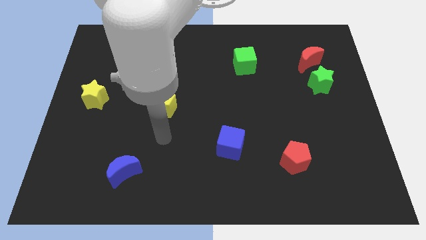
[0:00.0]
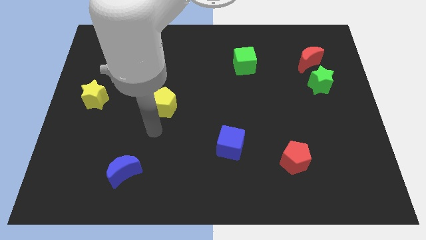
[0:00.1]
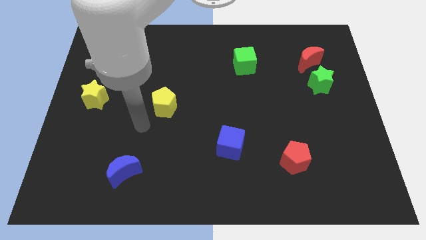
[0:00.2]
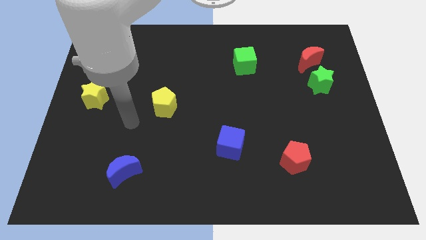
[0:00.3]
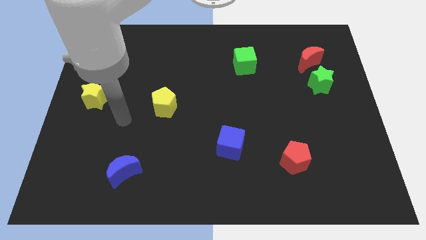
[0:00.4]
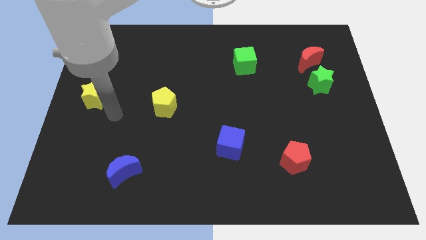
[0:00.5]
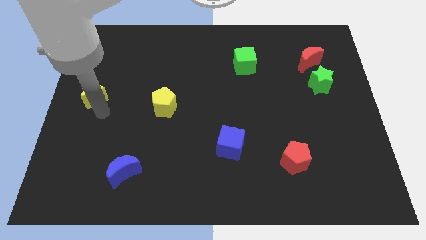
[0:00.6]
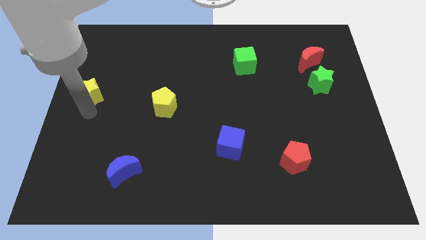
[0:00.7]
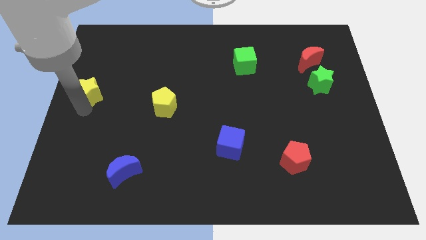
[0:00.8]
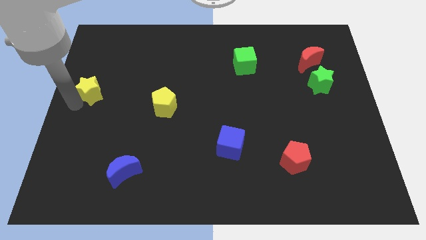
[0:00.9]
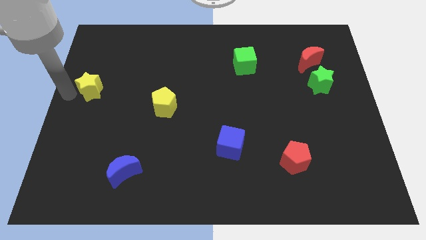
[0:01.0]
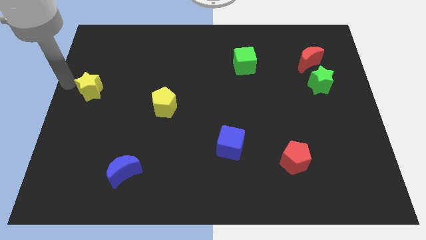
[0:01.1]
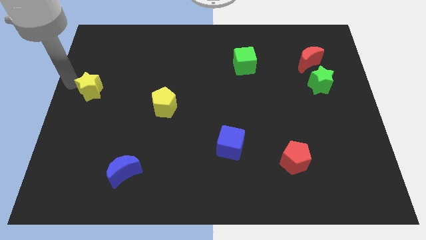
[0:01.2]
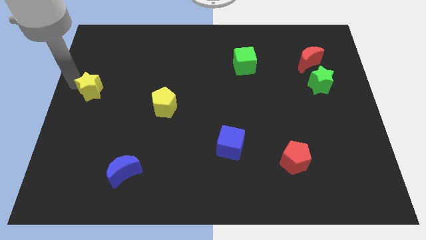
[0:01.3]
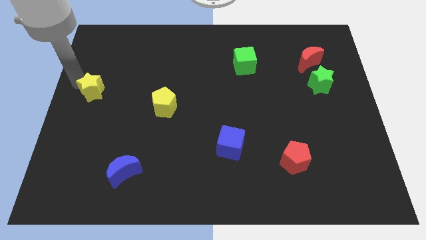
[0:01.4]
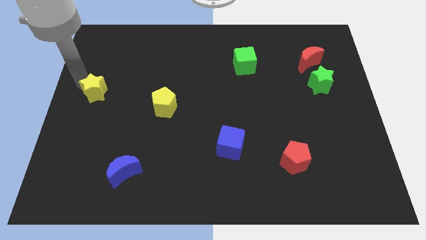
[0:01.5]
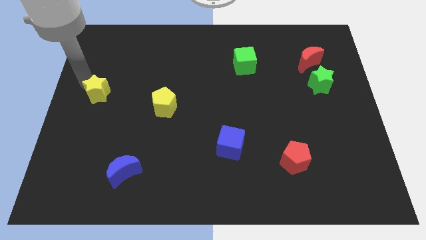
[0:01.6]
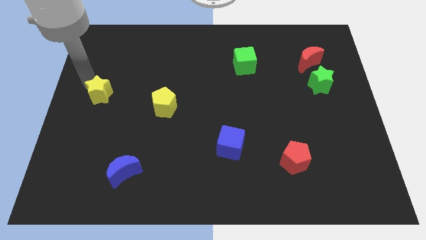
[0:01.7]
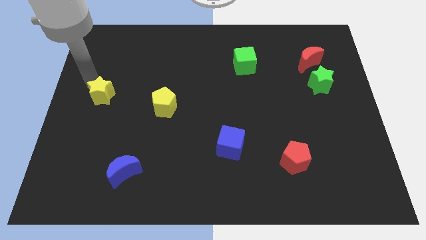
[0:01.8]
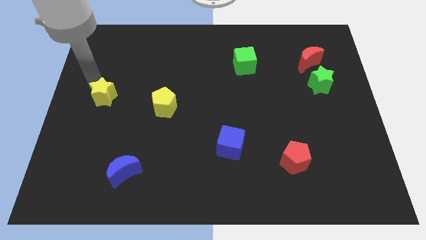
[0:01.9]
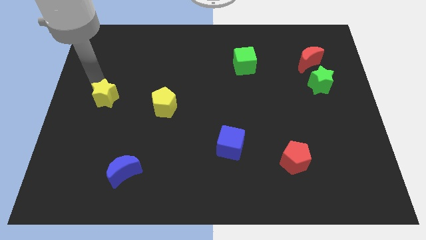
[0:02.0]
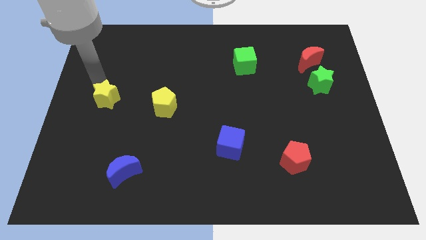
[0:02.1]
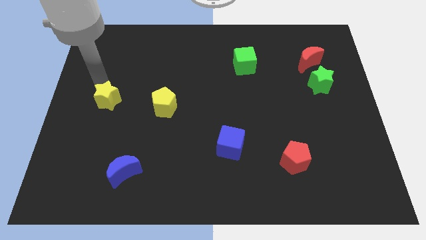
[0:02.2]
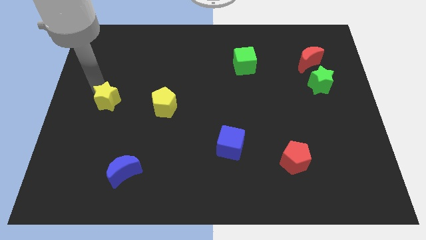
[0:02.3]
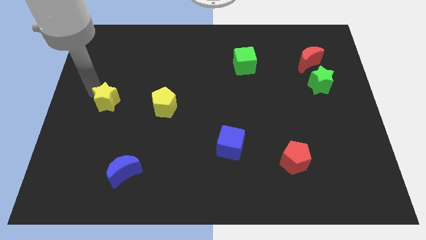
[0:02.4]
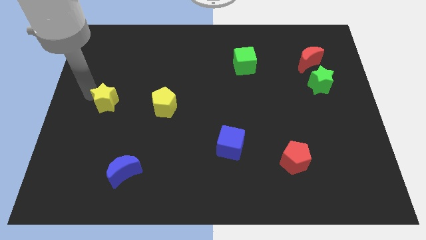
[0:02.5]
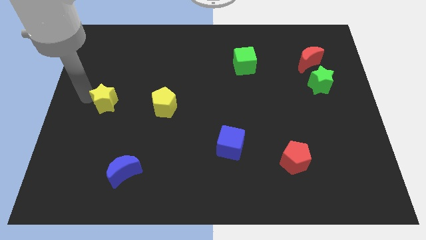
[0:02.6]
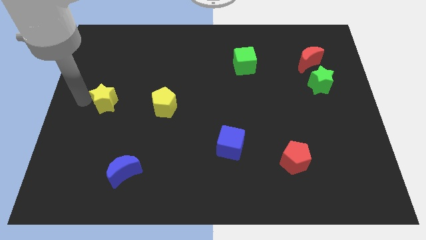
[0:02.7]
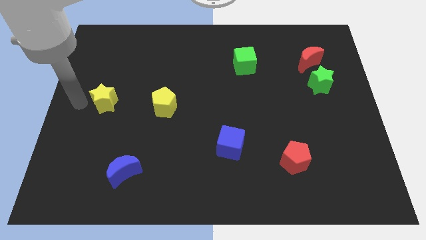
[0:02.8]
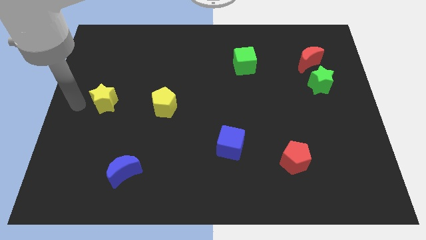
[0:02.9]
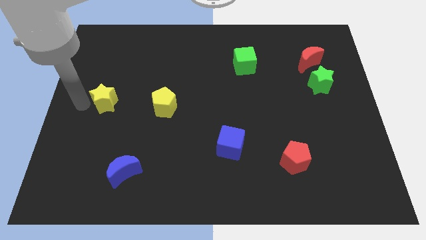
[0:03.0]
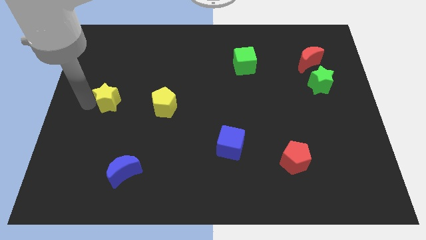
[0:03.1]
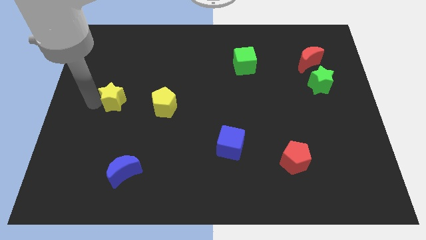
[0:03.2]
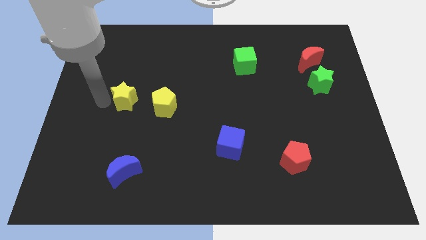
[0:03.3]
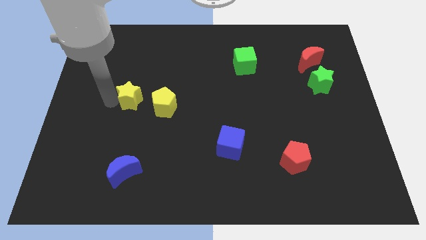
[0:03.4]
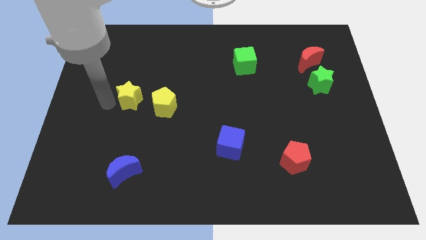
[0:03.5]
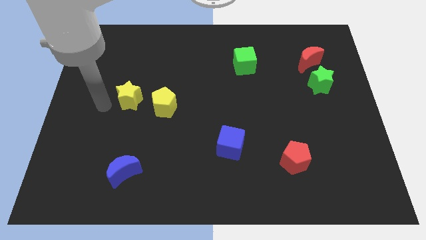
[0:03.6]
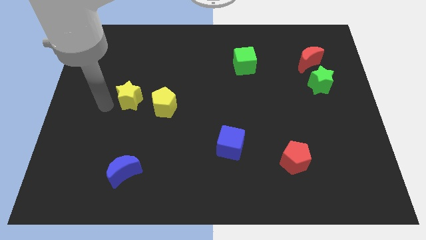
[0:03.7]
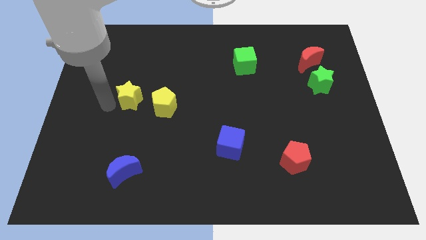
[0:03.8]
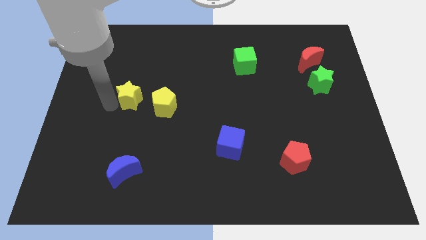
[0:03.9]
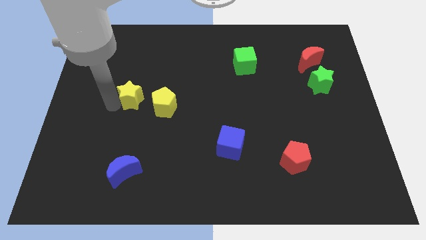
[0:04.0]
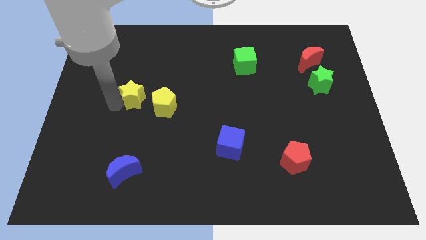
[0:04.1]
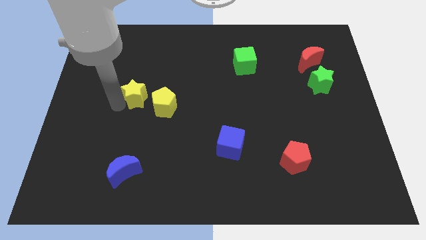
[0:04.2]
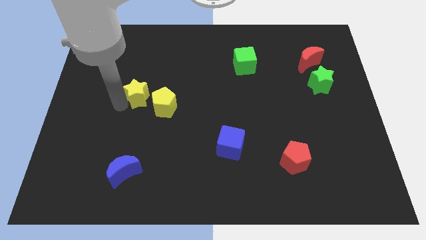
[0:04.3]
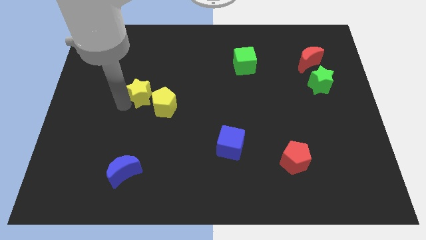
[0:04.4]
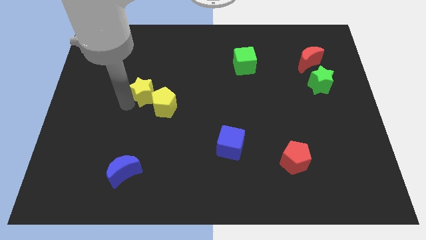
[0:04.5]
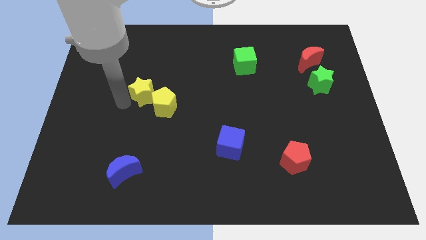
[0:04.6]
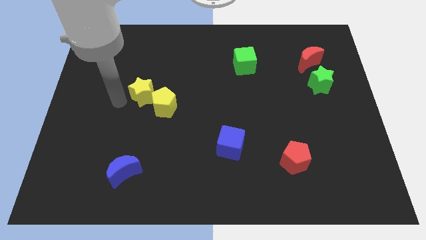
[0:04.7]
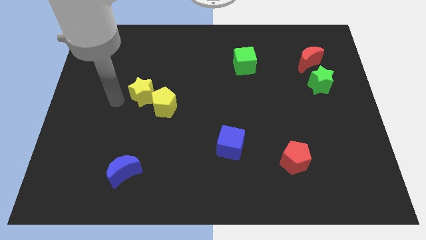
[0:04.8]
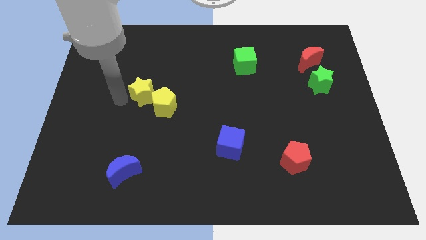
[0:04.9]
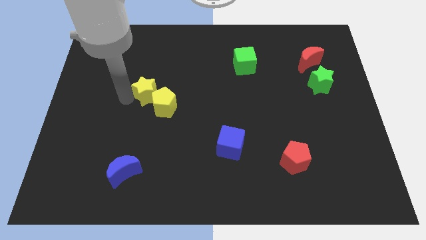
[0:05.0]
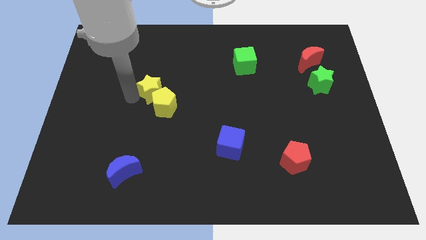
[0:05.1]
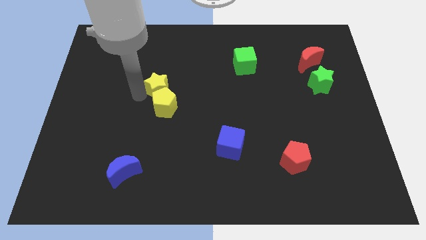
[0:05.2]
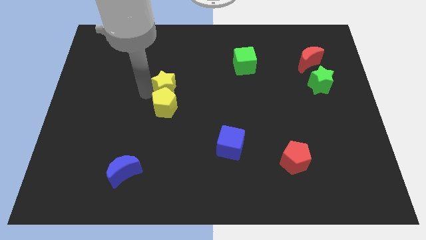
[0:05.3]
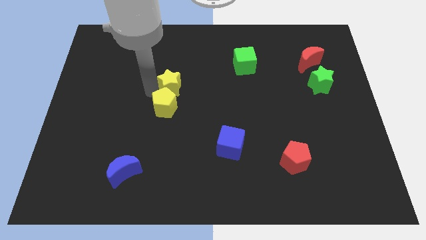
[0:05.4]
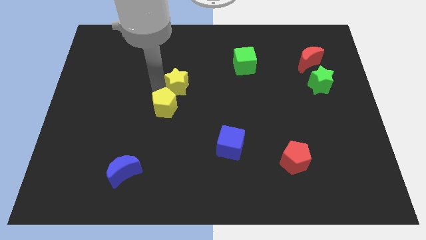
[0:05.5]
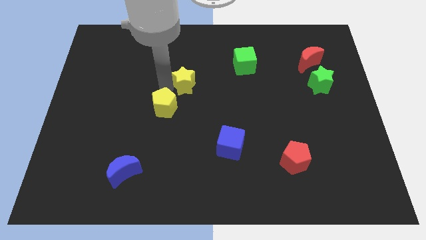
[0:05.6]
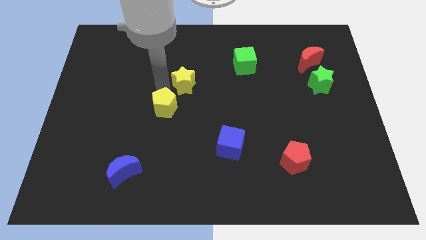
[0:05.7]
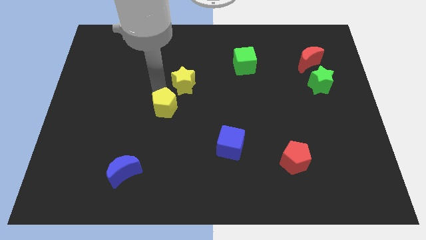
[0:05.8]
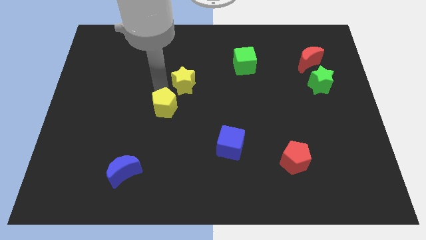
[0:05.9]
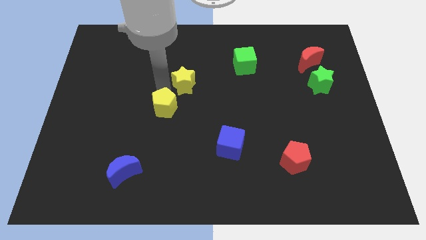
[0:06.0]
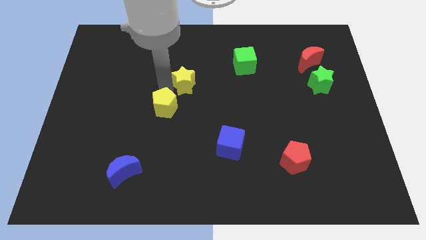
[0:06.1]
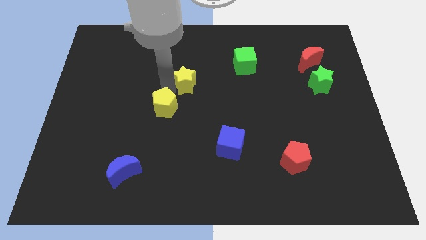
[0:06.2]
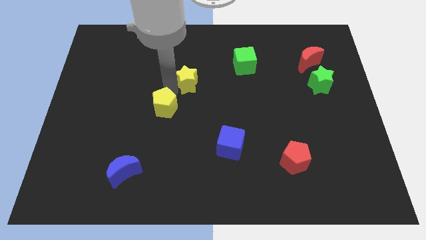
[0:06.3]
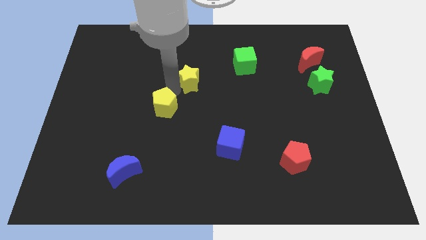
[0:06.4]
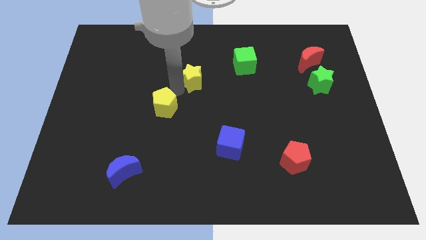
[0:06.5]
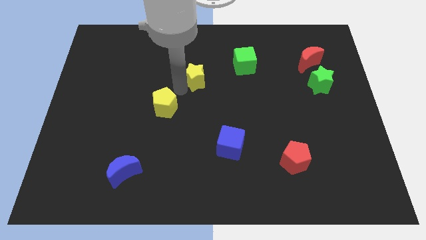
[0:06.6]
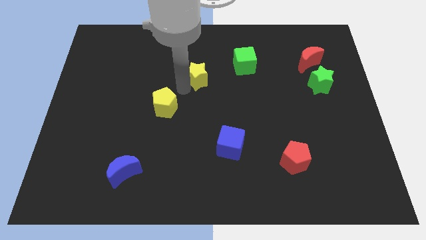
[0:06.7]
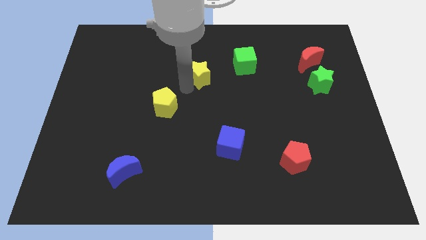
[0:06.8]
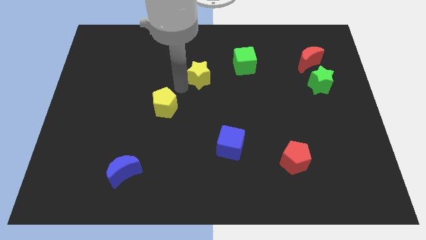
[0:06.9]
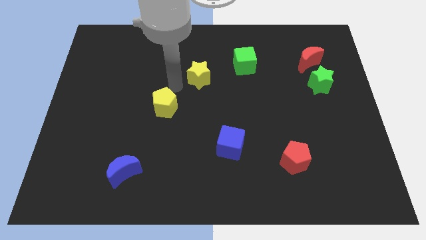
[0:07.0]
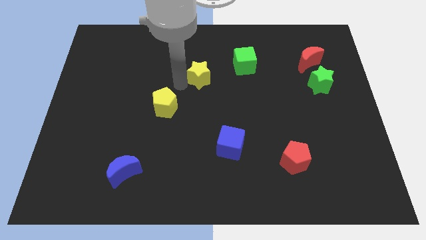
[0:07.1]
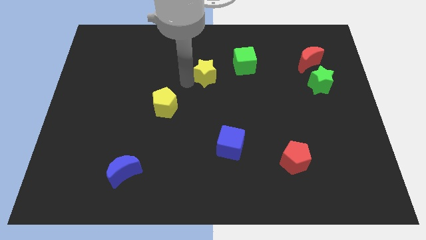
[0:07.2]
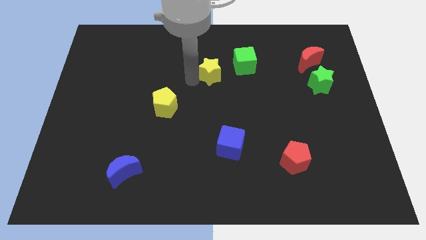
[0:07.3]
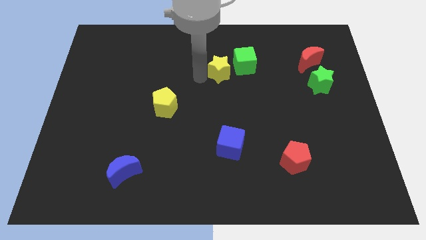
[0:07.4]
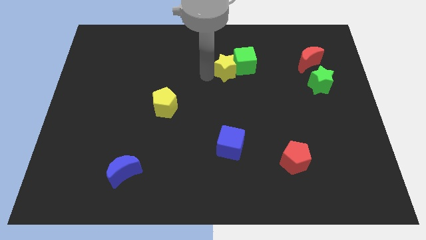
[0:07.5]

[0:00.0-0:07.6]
put the yellow star close to the green cube
